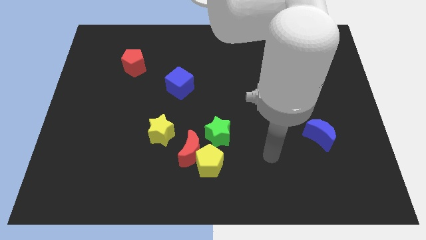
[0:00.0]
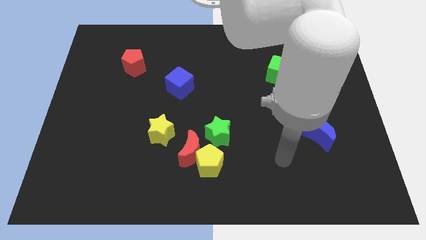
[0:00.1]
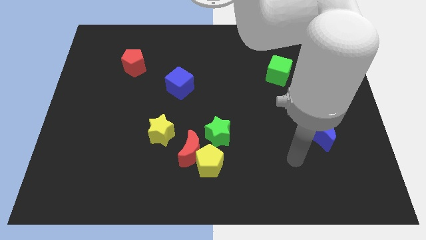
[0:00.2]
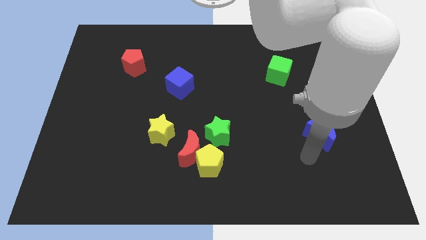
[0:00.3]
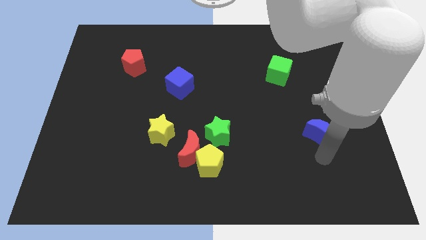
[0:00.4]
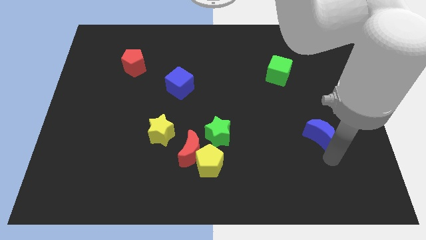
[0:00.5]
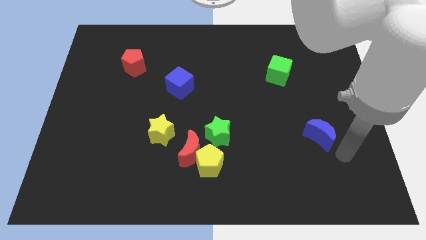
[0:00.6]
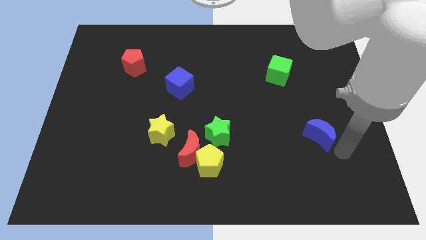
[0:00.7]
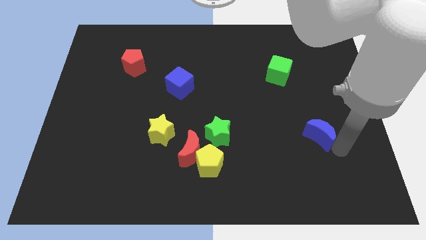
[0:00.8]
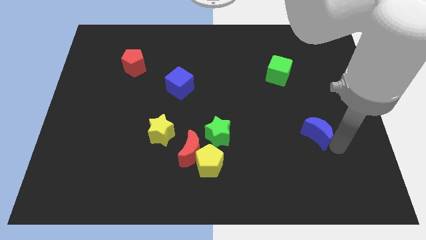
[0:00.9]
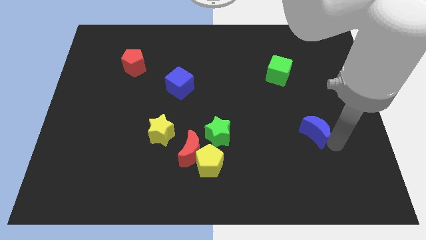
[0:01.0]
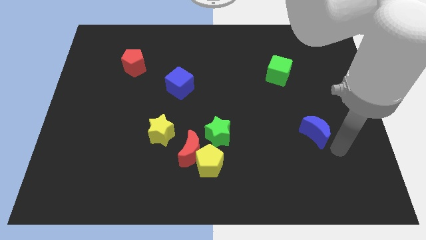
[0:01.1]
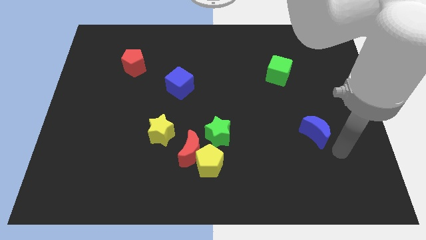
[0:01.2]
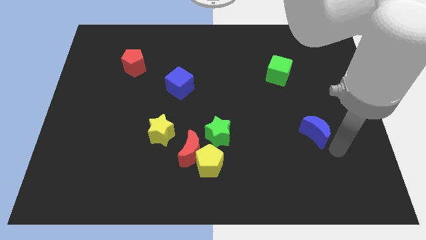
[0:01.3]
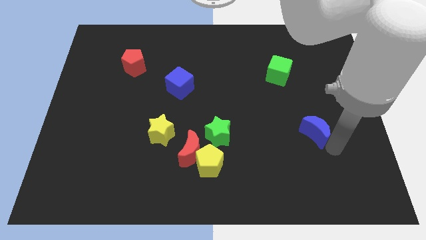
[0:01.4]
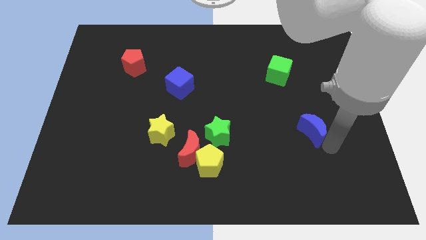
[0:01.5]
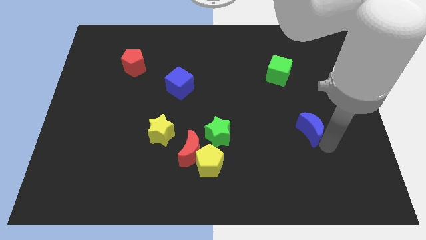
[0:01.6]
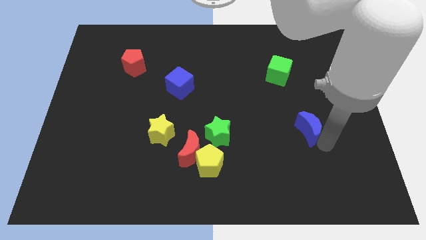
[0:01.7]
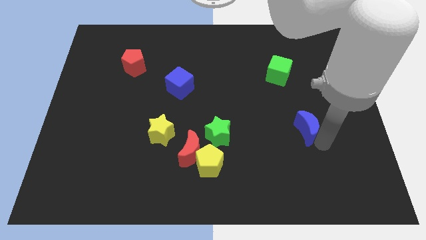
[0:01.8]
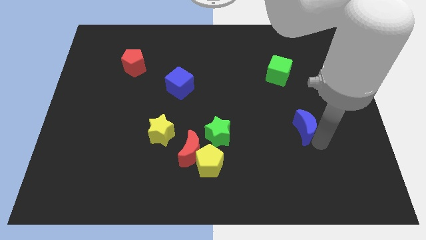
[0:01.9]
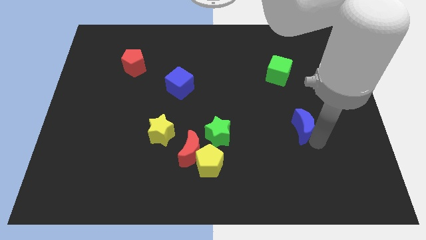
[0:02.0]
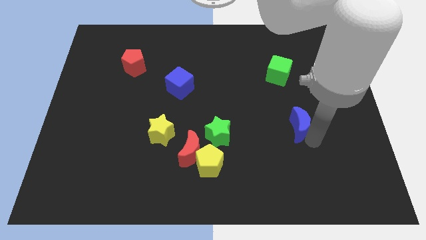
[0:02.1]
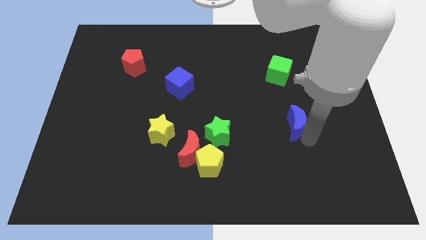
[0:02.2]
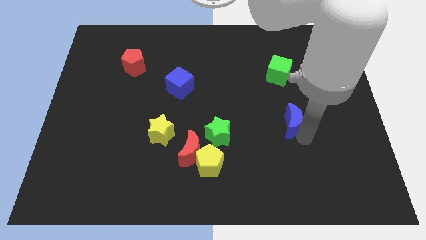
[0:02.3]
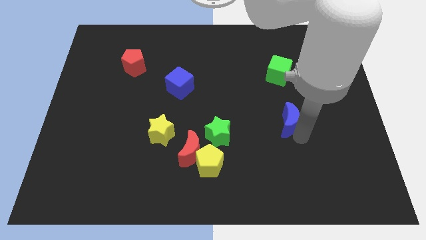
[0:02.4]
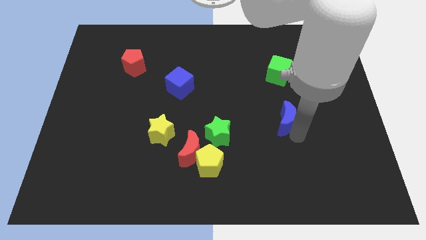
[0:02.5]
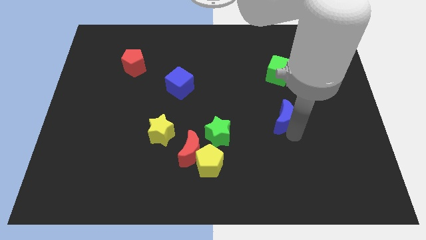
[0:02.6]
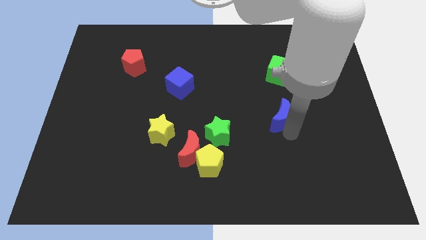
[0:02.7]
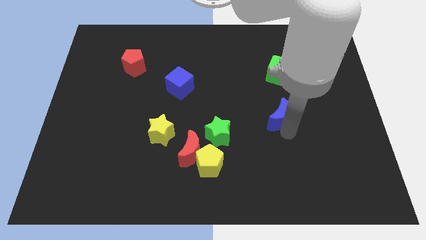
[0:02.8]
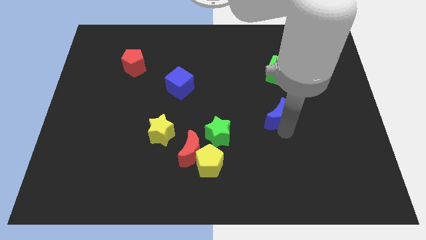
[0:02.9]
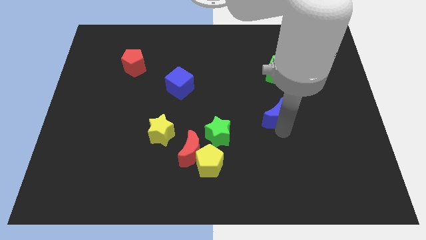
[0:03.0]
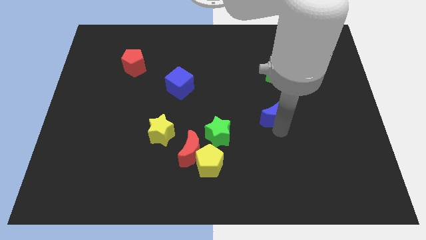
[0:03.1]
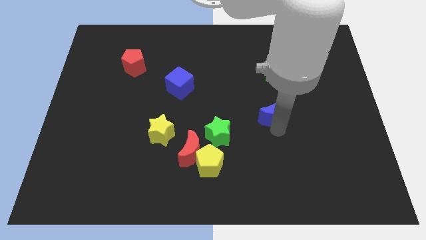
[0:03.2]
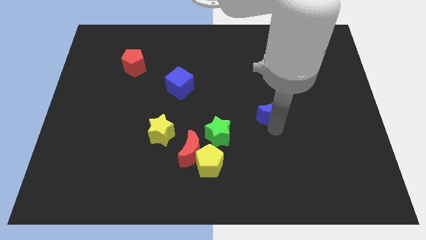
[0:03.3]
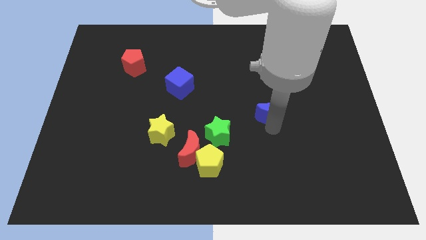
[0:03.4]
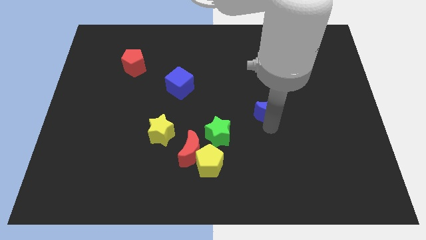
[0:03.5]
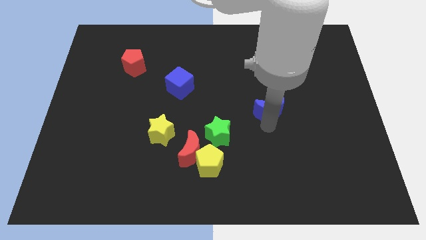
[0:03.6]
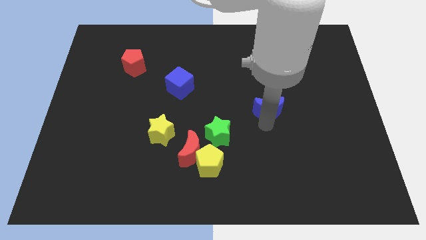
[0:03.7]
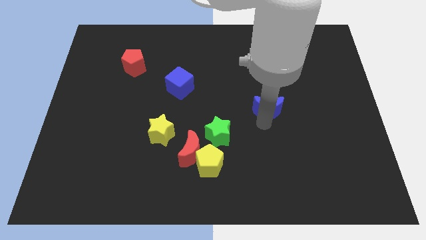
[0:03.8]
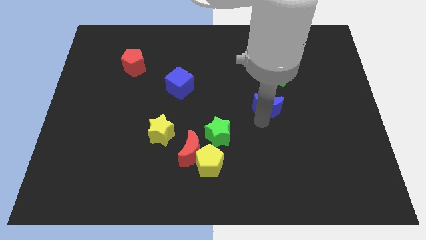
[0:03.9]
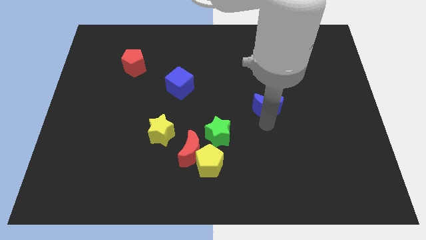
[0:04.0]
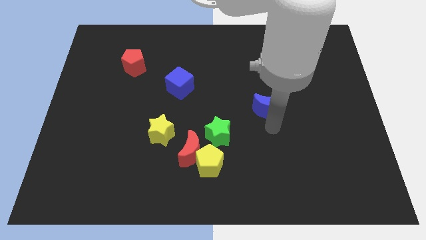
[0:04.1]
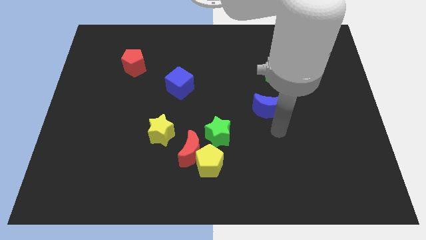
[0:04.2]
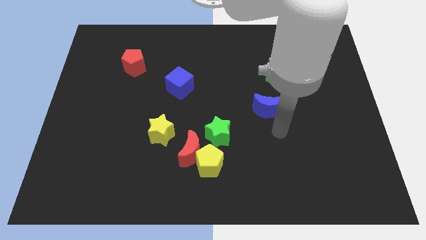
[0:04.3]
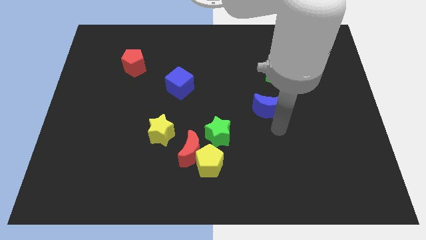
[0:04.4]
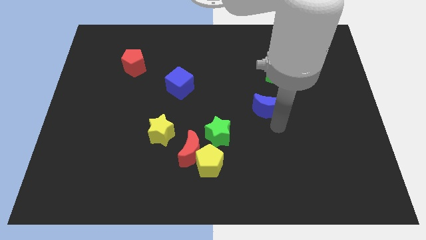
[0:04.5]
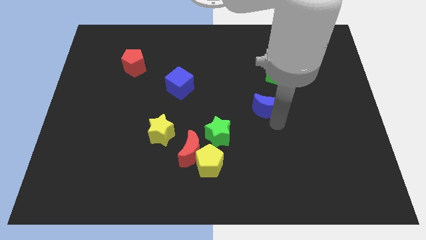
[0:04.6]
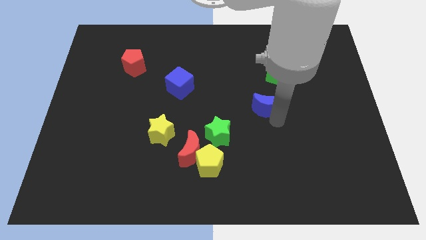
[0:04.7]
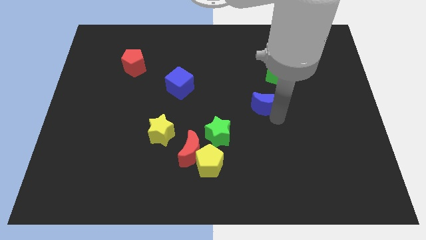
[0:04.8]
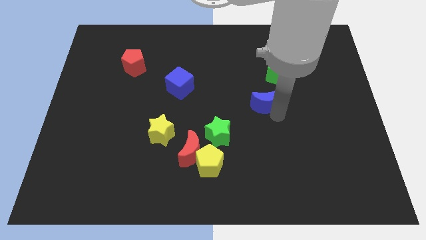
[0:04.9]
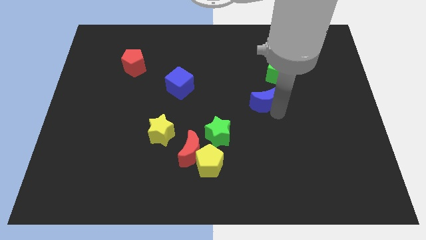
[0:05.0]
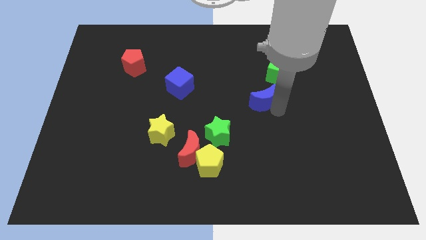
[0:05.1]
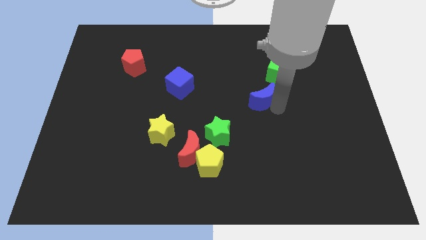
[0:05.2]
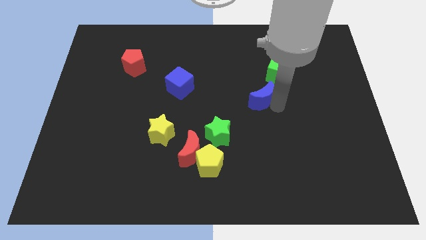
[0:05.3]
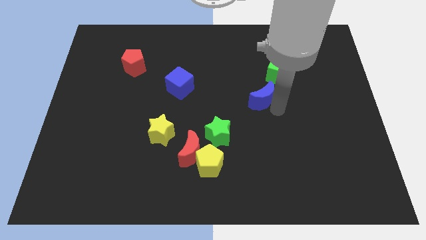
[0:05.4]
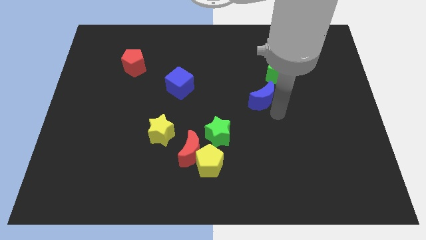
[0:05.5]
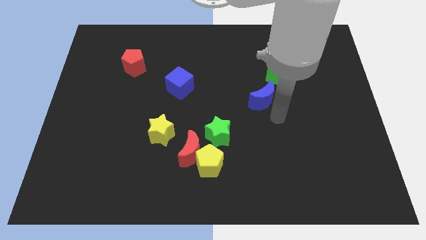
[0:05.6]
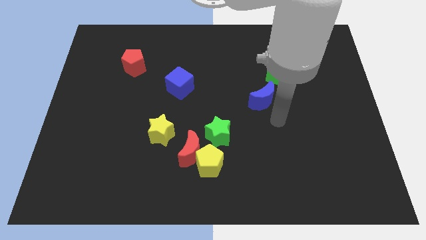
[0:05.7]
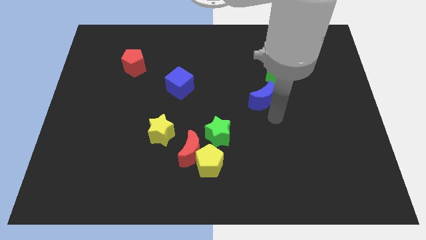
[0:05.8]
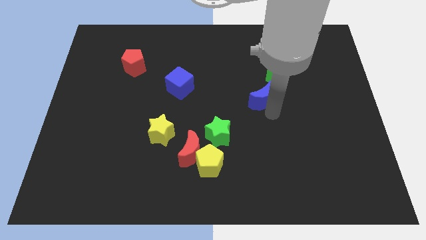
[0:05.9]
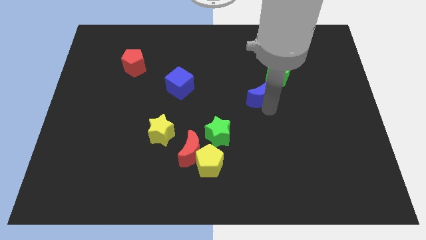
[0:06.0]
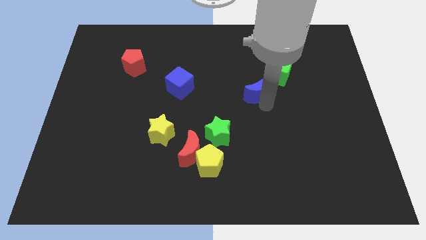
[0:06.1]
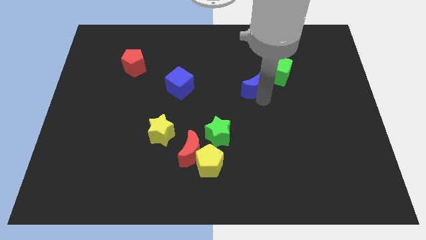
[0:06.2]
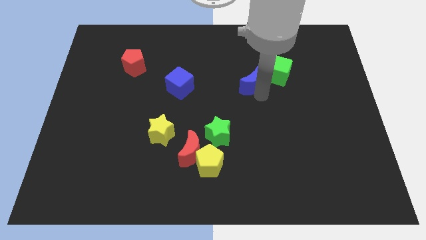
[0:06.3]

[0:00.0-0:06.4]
slide the blue moon upwards and then to the left

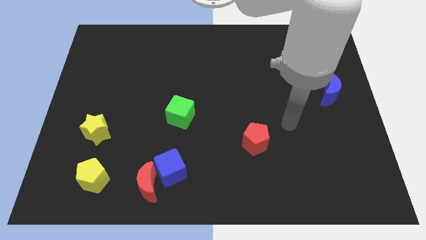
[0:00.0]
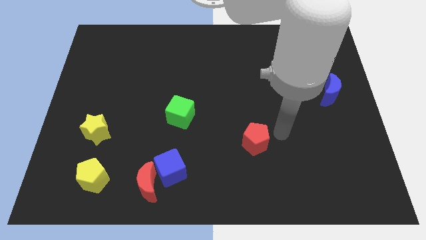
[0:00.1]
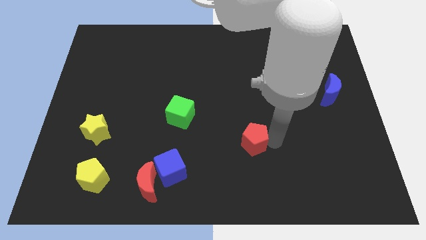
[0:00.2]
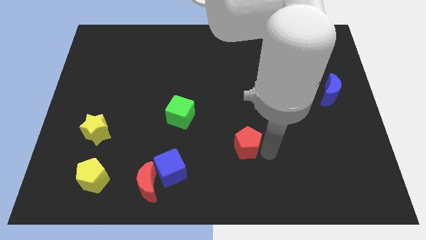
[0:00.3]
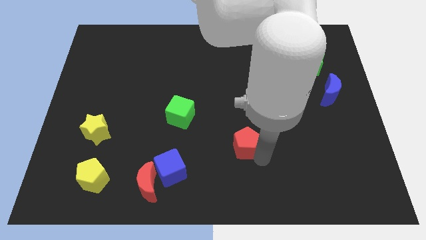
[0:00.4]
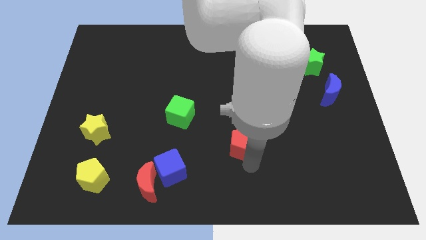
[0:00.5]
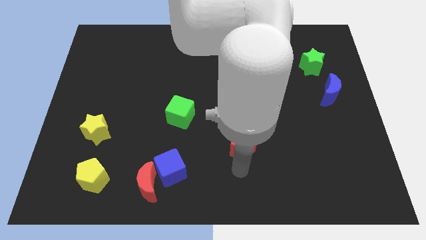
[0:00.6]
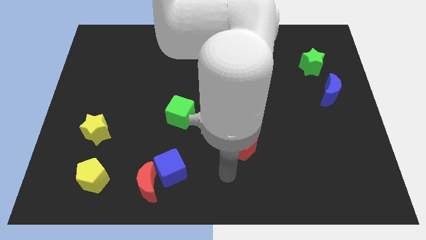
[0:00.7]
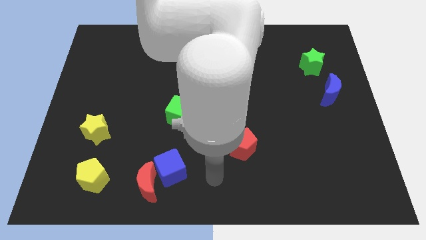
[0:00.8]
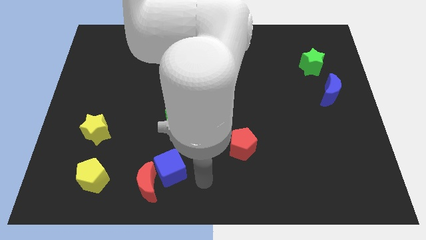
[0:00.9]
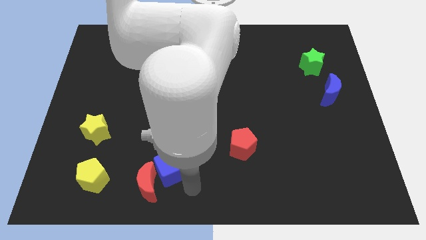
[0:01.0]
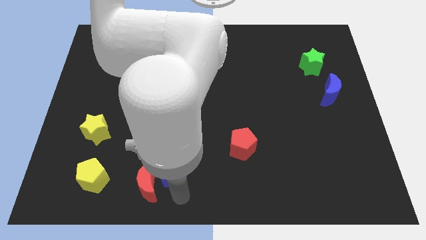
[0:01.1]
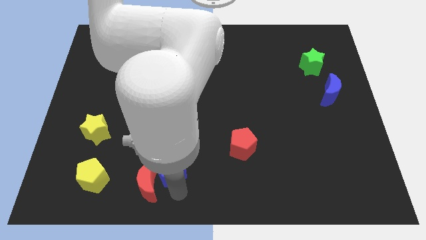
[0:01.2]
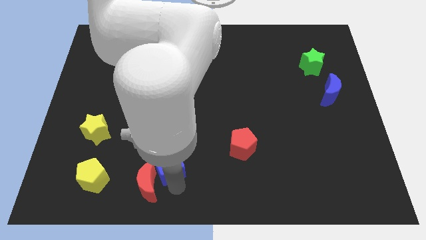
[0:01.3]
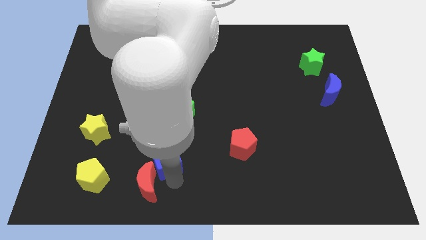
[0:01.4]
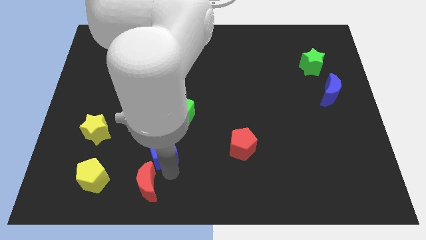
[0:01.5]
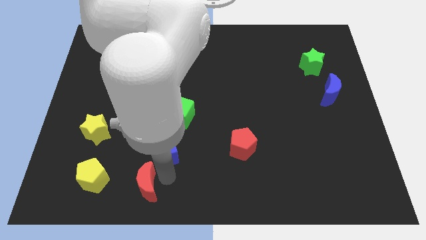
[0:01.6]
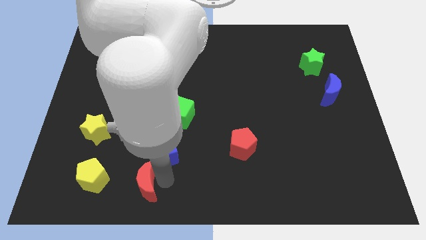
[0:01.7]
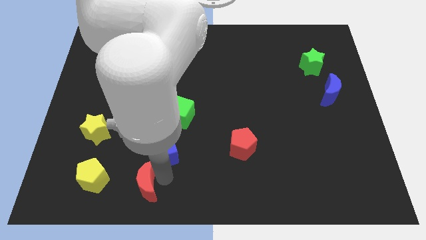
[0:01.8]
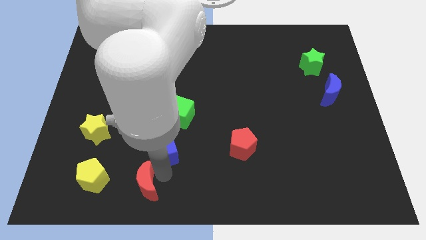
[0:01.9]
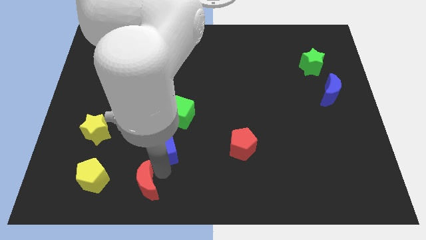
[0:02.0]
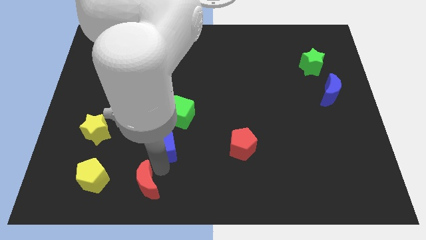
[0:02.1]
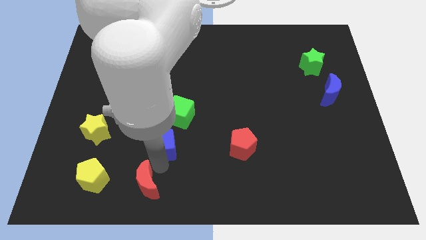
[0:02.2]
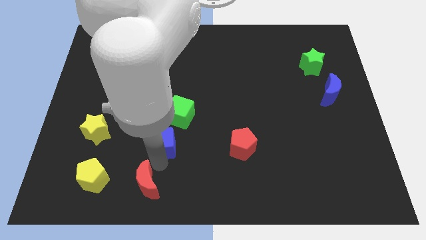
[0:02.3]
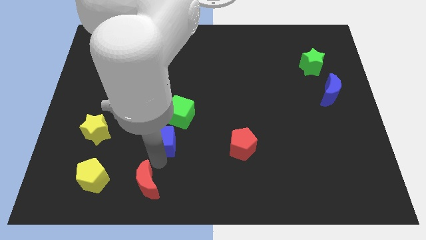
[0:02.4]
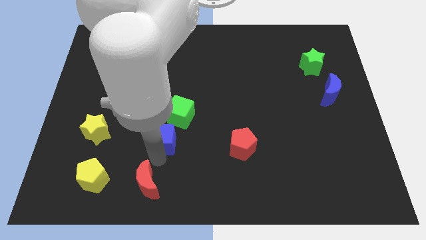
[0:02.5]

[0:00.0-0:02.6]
slightly move the blue cube upwards
